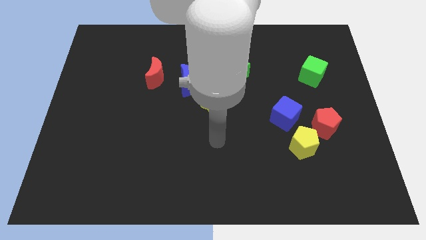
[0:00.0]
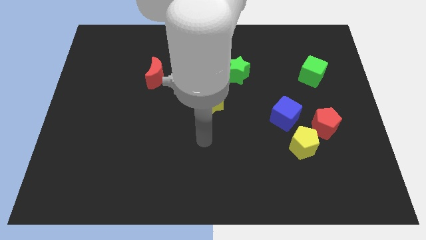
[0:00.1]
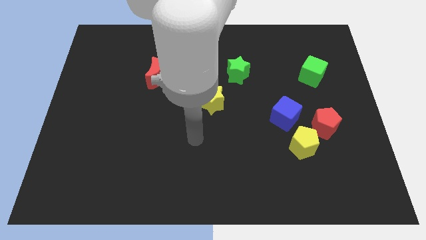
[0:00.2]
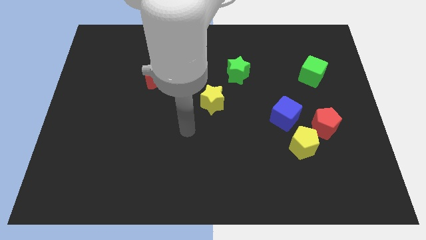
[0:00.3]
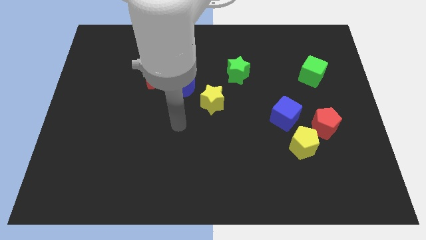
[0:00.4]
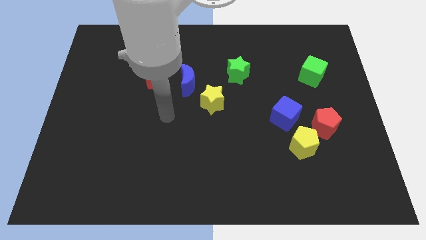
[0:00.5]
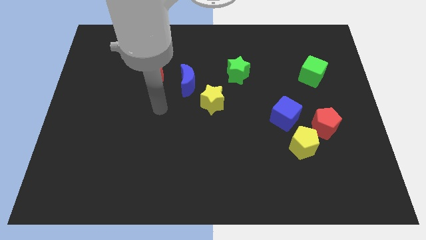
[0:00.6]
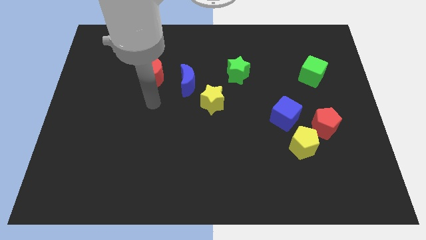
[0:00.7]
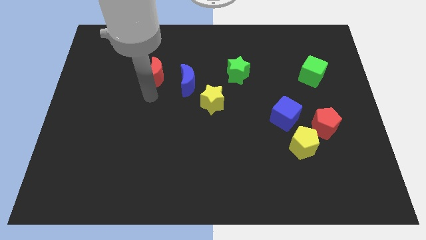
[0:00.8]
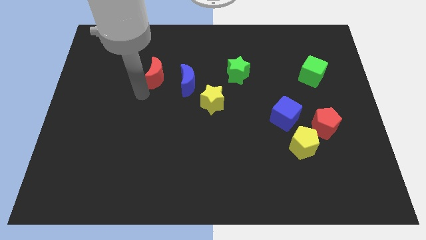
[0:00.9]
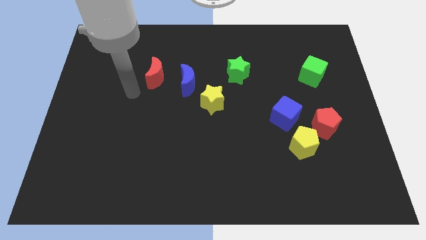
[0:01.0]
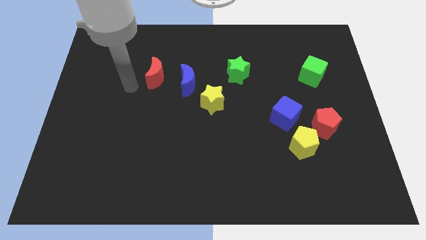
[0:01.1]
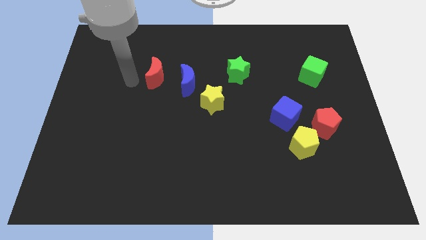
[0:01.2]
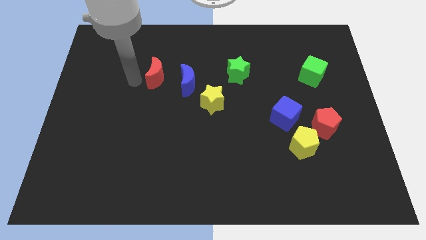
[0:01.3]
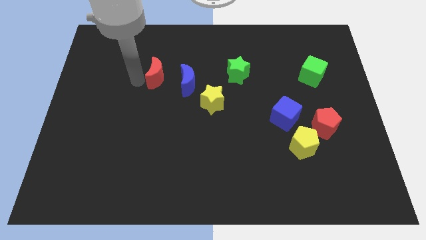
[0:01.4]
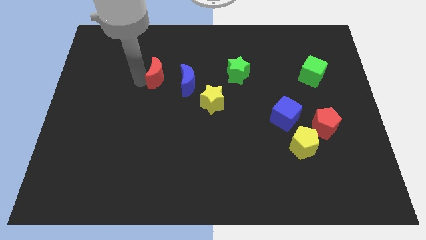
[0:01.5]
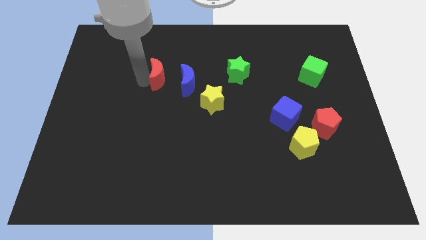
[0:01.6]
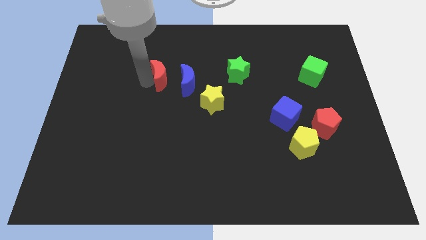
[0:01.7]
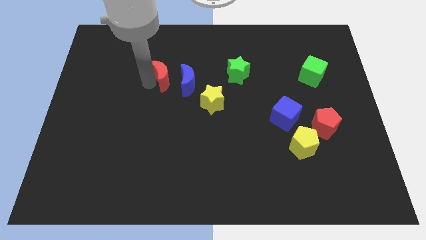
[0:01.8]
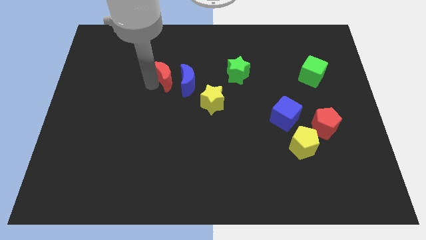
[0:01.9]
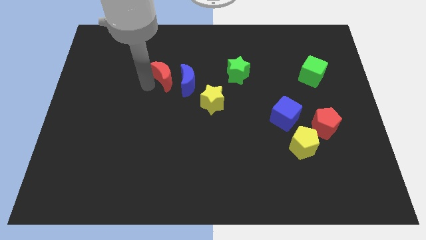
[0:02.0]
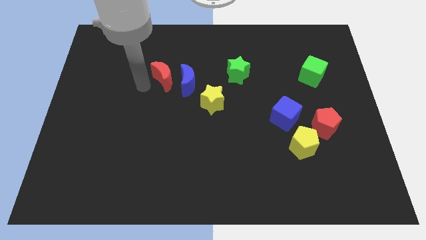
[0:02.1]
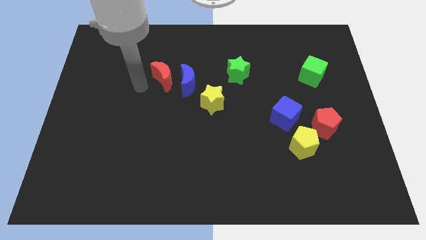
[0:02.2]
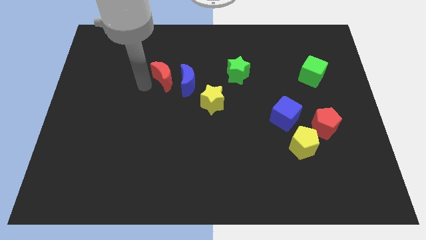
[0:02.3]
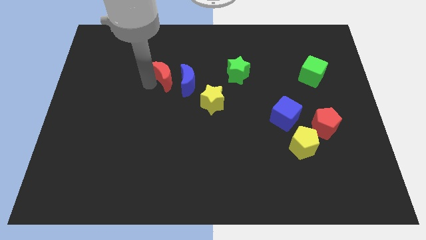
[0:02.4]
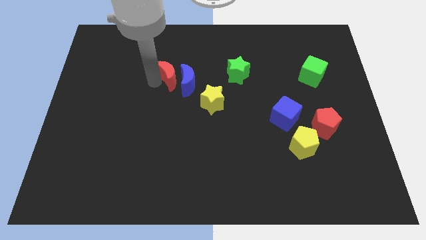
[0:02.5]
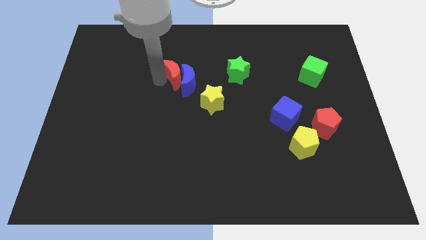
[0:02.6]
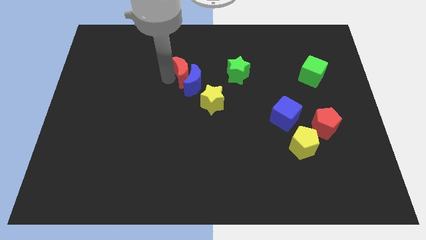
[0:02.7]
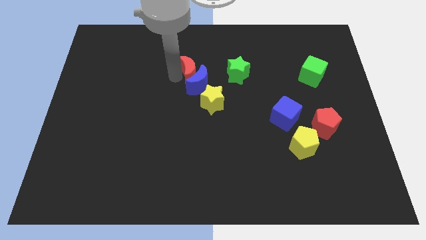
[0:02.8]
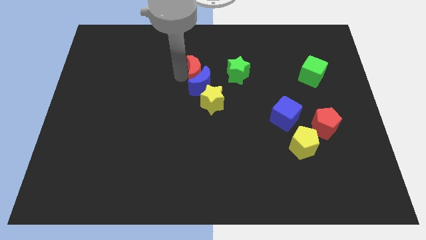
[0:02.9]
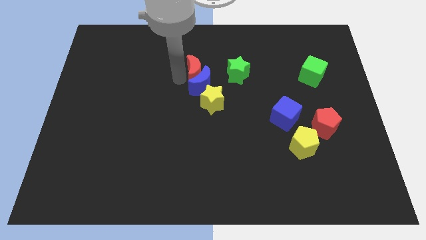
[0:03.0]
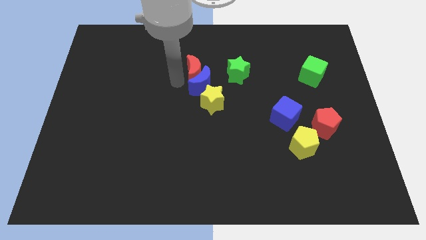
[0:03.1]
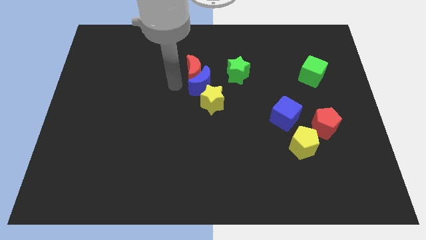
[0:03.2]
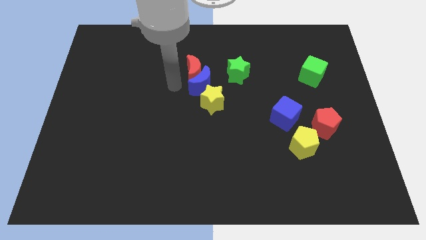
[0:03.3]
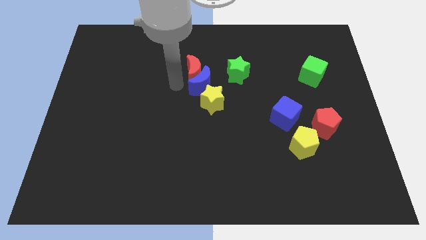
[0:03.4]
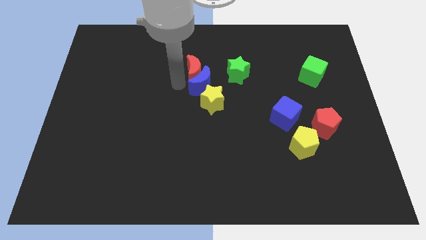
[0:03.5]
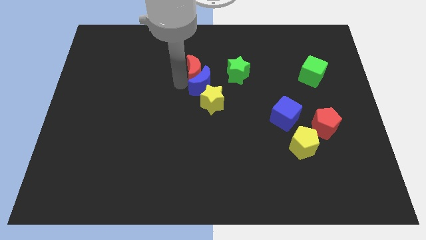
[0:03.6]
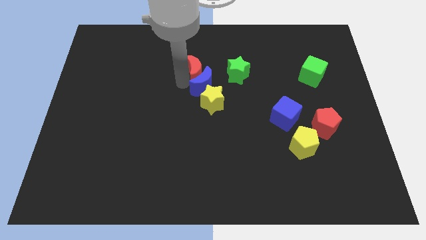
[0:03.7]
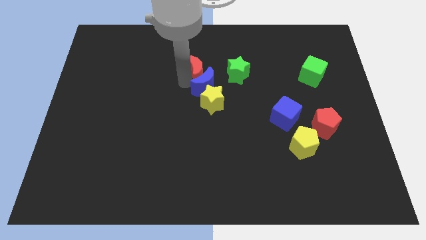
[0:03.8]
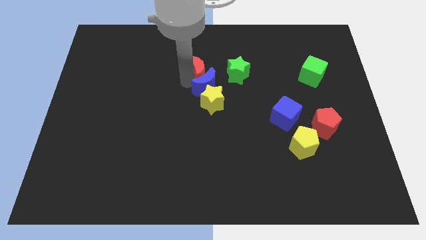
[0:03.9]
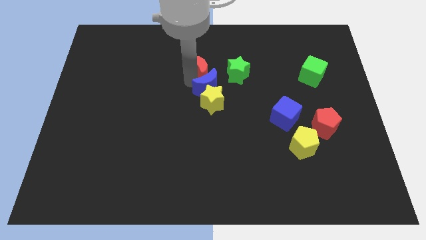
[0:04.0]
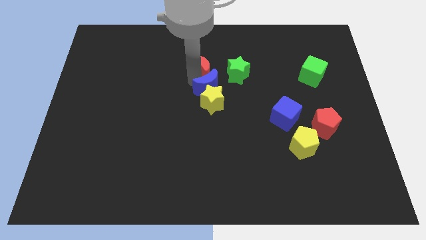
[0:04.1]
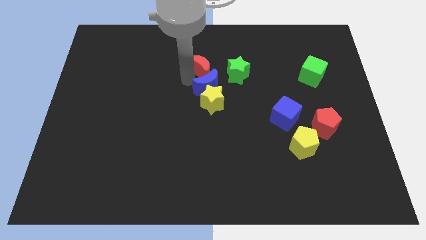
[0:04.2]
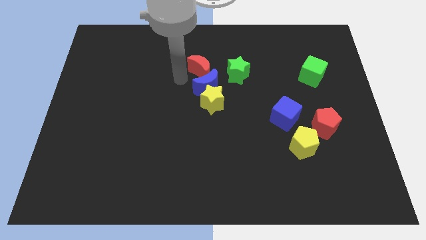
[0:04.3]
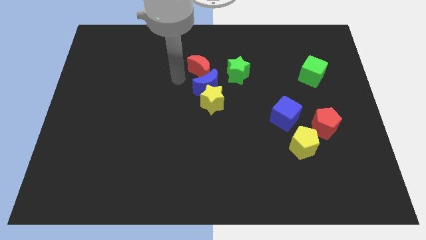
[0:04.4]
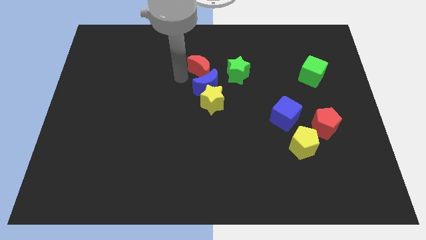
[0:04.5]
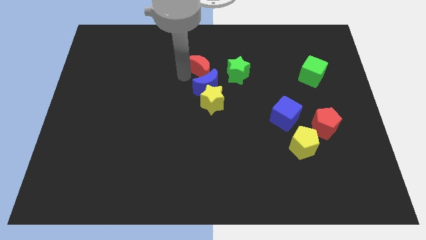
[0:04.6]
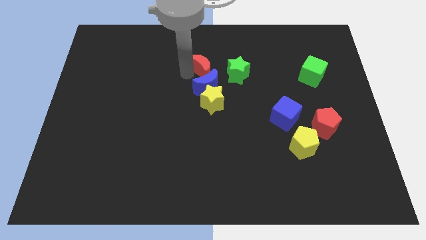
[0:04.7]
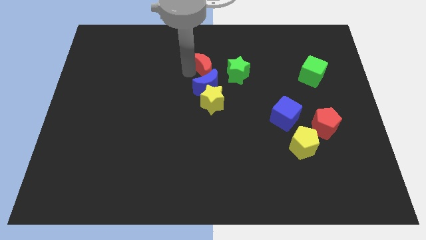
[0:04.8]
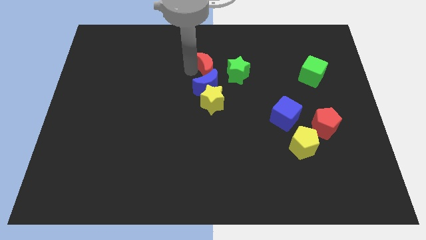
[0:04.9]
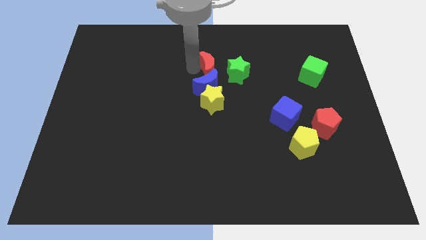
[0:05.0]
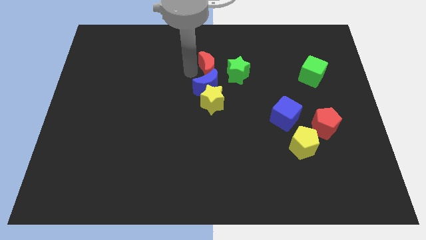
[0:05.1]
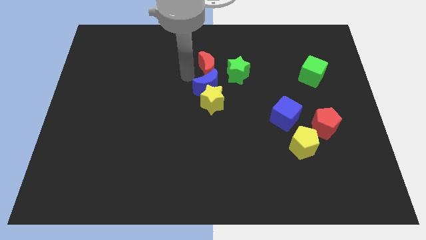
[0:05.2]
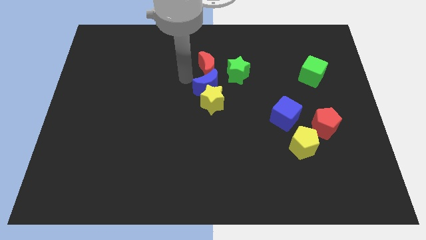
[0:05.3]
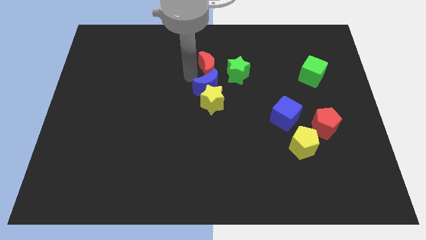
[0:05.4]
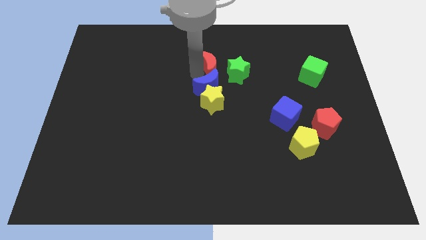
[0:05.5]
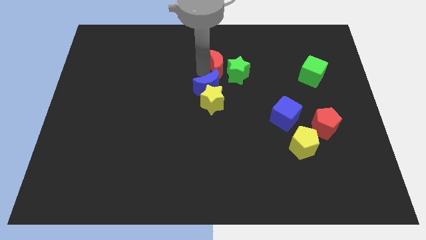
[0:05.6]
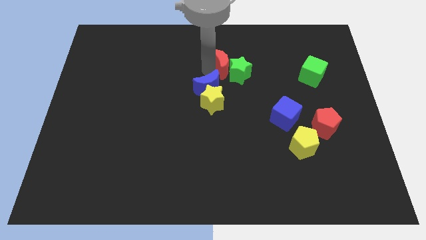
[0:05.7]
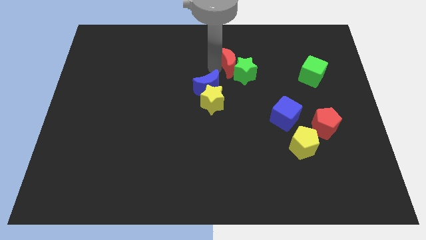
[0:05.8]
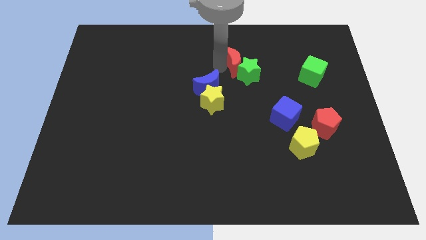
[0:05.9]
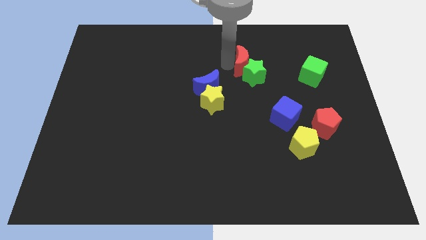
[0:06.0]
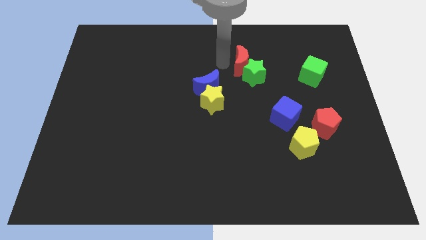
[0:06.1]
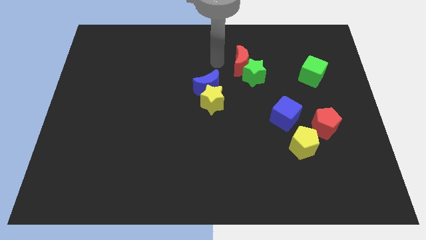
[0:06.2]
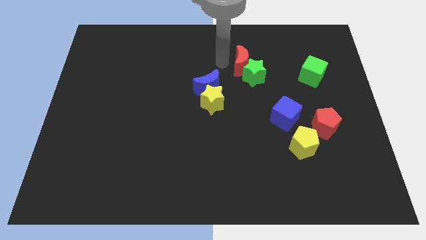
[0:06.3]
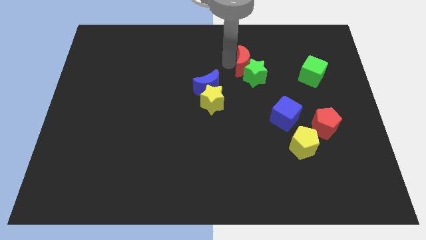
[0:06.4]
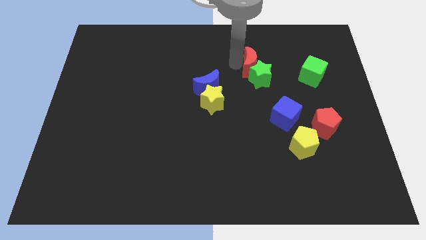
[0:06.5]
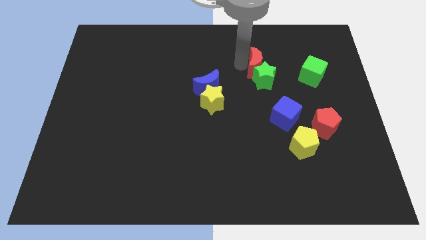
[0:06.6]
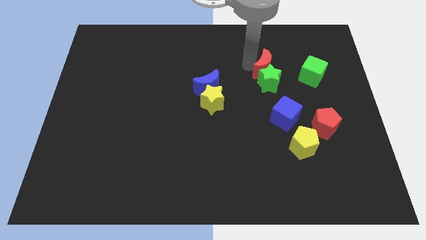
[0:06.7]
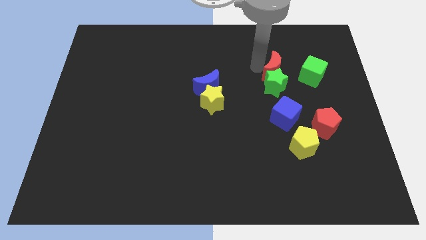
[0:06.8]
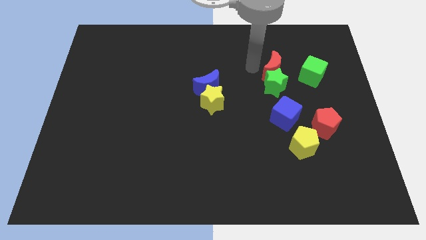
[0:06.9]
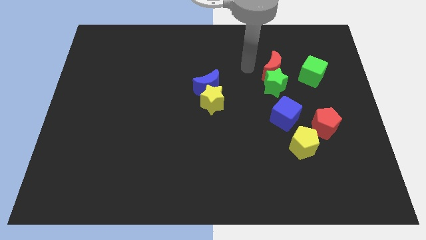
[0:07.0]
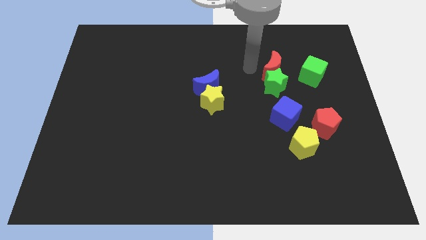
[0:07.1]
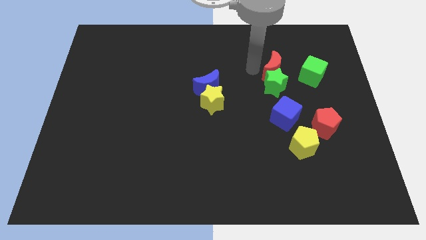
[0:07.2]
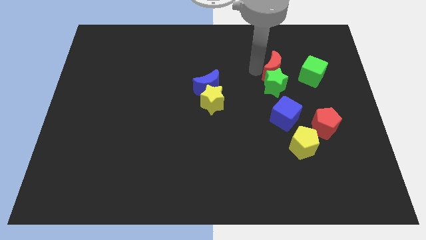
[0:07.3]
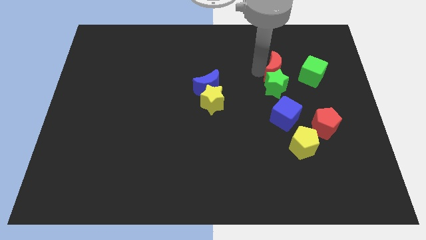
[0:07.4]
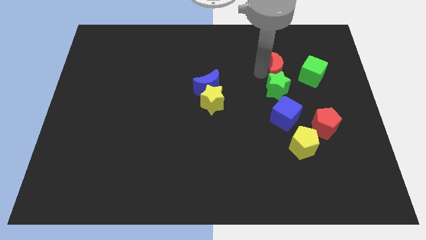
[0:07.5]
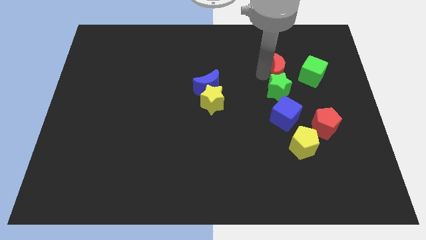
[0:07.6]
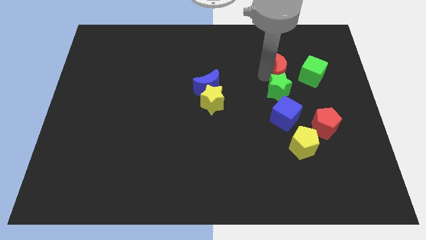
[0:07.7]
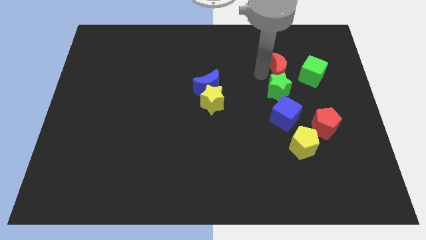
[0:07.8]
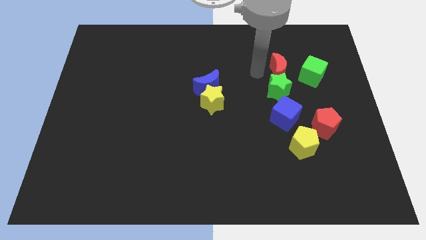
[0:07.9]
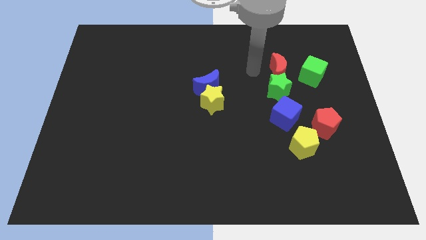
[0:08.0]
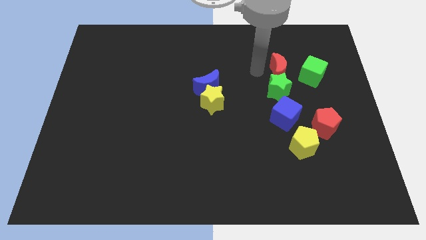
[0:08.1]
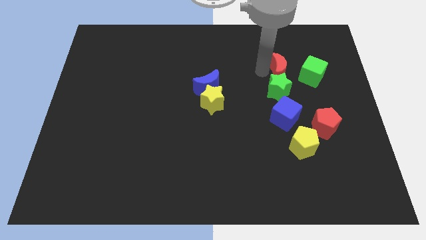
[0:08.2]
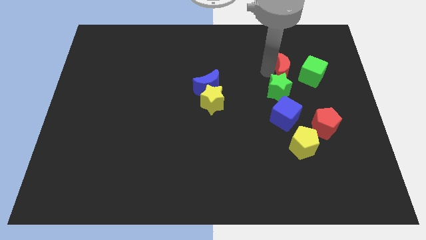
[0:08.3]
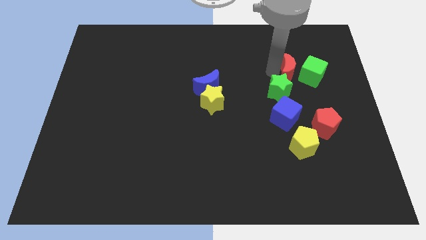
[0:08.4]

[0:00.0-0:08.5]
move the red moon close to the green cube
